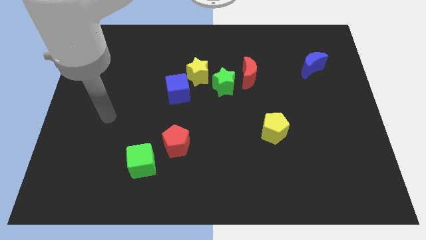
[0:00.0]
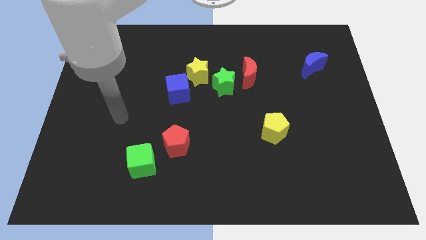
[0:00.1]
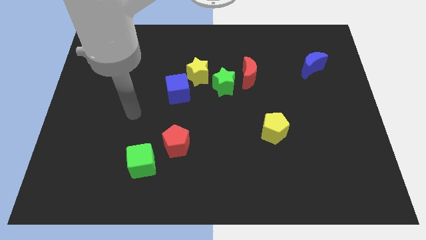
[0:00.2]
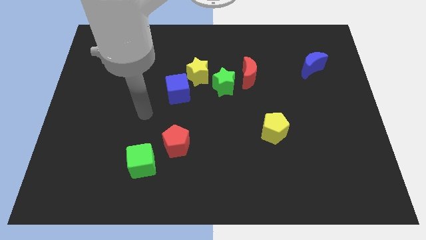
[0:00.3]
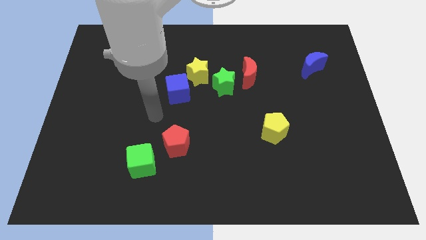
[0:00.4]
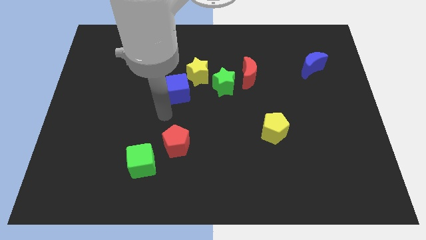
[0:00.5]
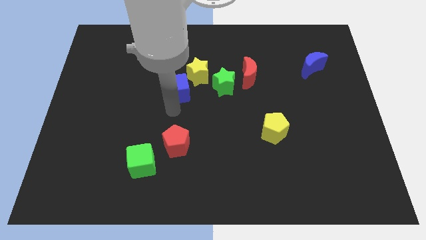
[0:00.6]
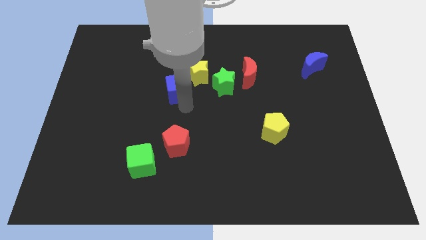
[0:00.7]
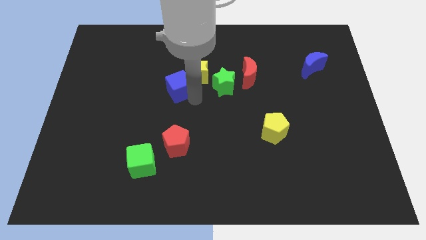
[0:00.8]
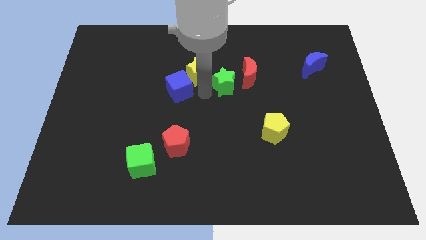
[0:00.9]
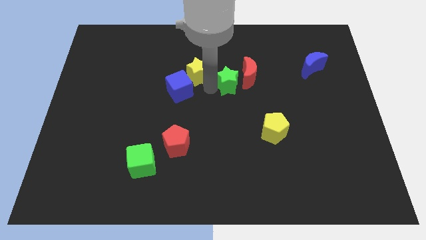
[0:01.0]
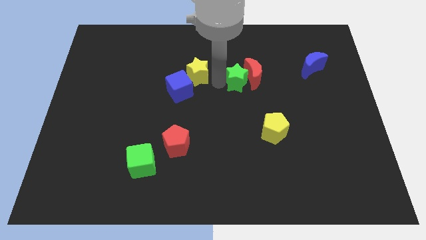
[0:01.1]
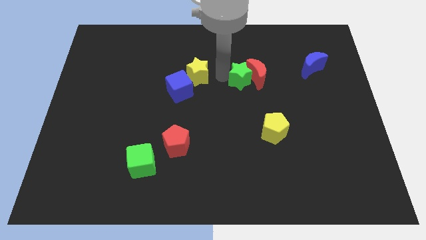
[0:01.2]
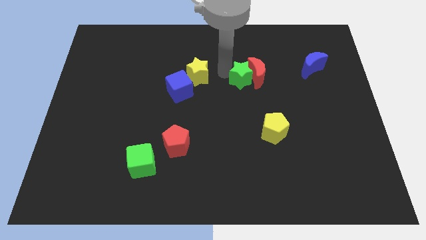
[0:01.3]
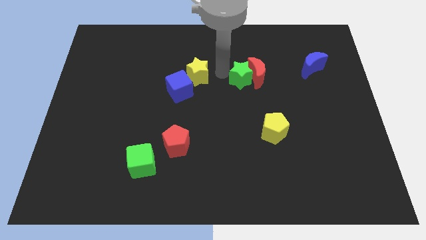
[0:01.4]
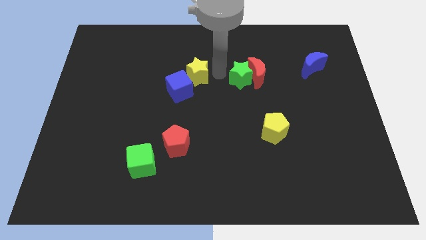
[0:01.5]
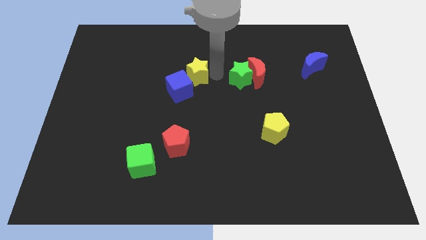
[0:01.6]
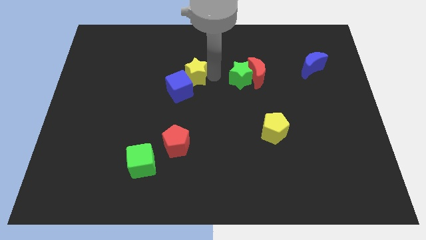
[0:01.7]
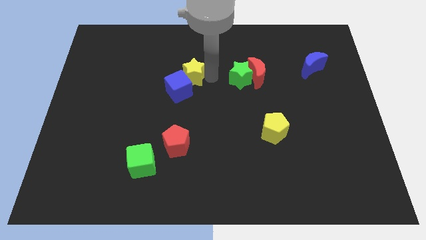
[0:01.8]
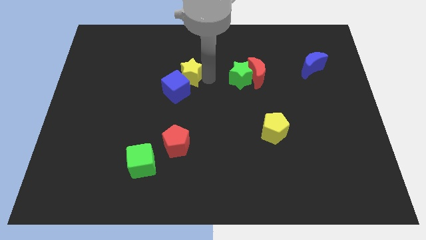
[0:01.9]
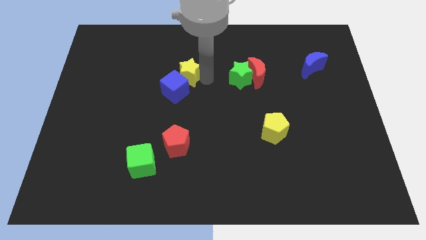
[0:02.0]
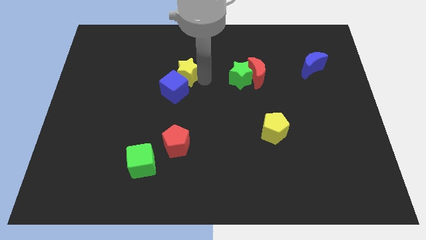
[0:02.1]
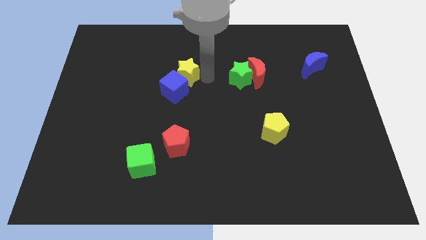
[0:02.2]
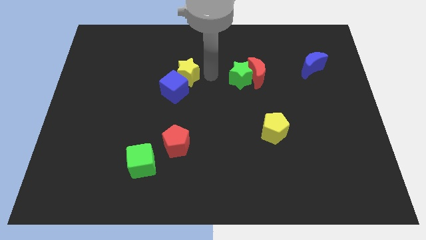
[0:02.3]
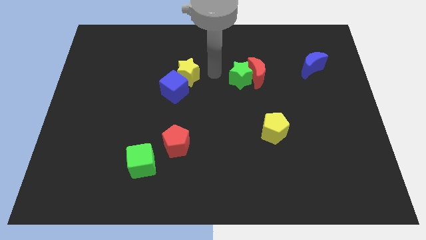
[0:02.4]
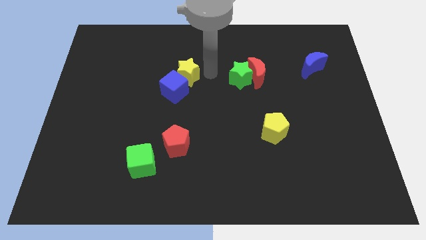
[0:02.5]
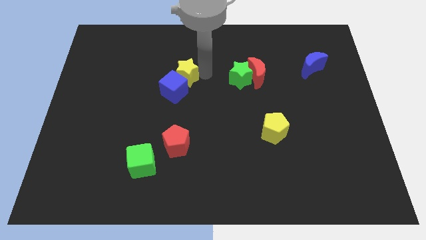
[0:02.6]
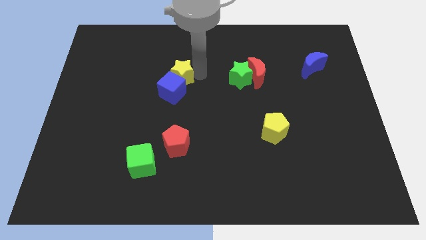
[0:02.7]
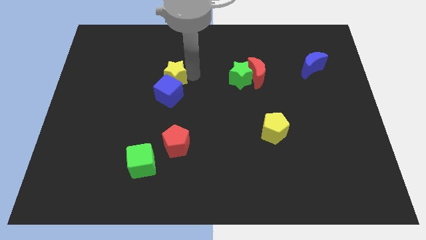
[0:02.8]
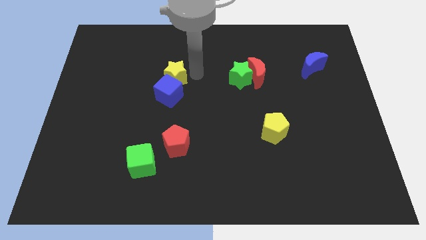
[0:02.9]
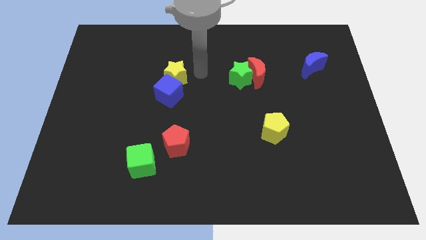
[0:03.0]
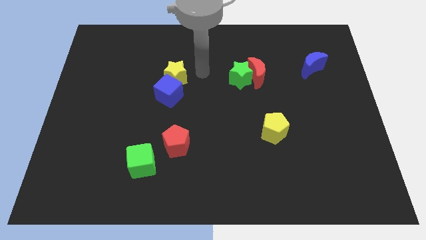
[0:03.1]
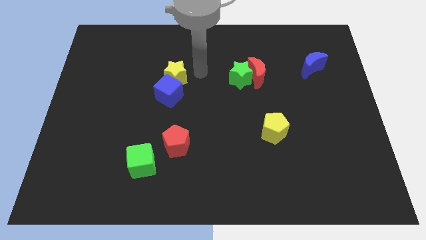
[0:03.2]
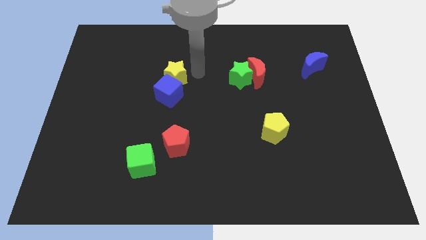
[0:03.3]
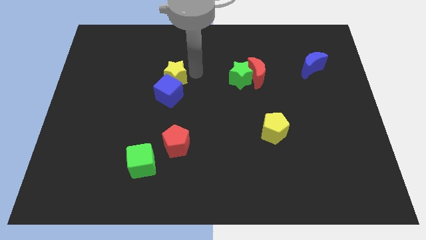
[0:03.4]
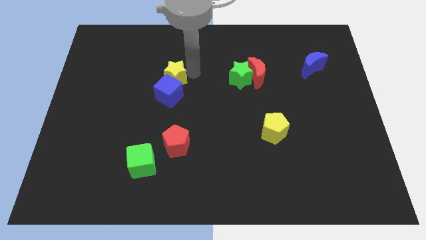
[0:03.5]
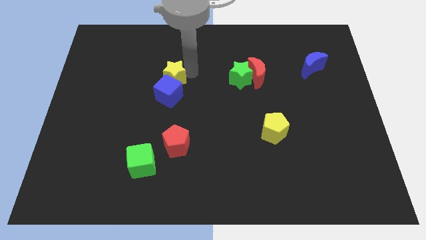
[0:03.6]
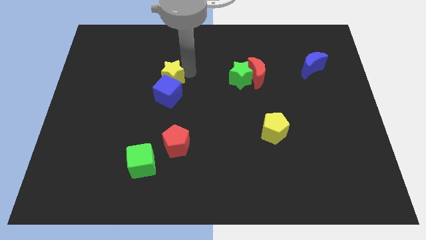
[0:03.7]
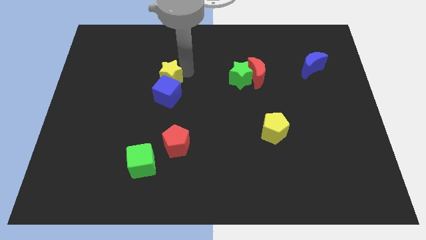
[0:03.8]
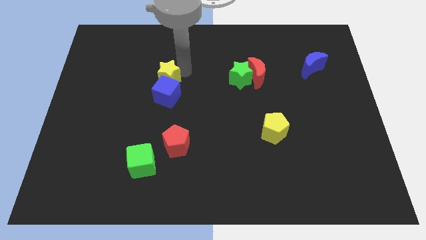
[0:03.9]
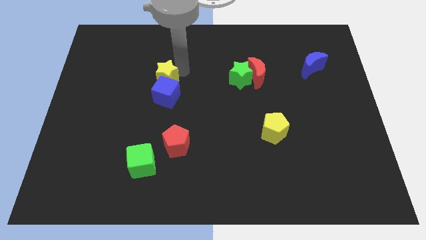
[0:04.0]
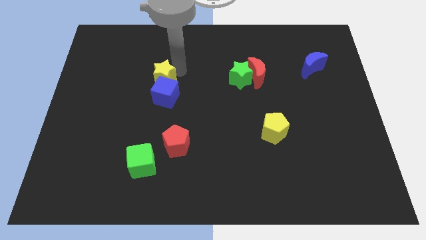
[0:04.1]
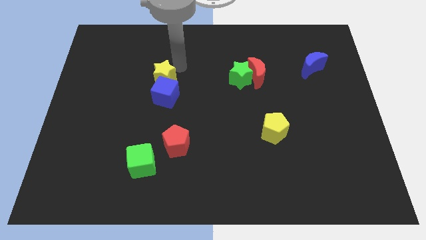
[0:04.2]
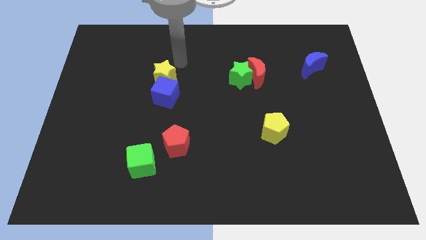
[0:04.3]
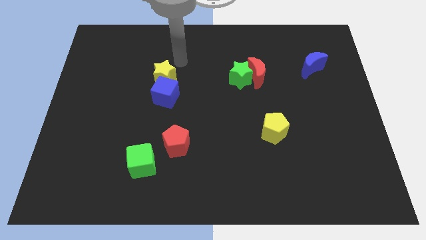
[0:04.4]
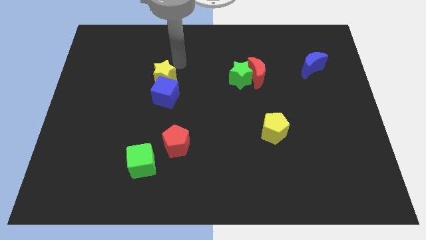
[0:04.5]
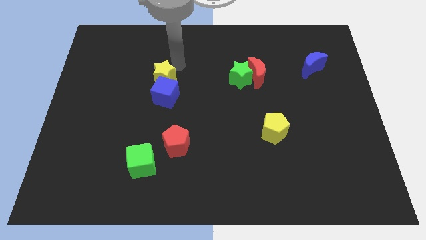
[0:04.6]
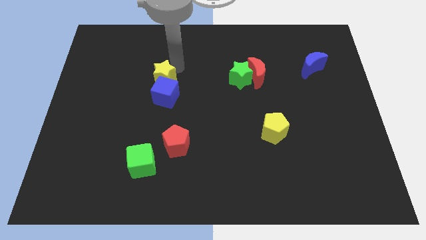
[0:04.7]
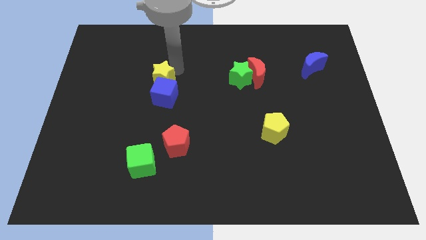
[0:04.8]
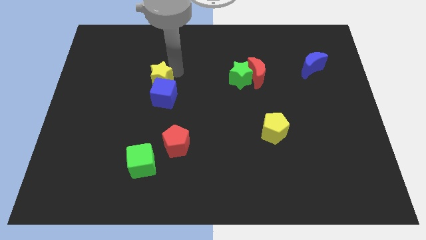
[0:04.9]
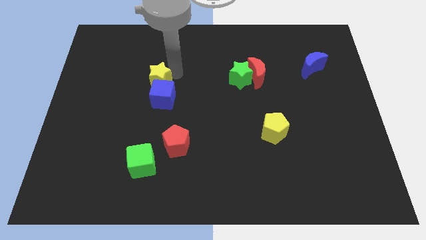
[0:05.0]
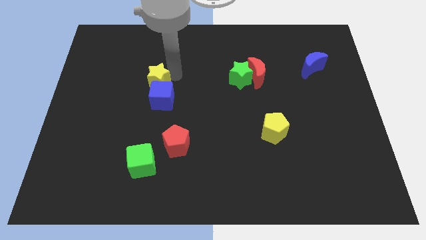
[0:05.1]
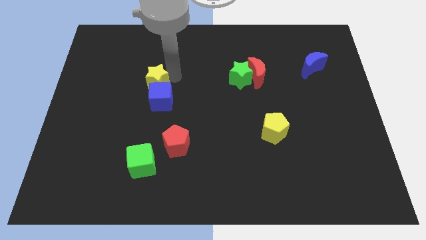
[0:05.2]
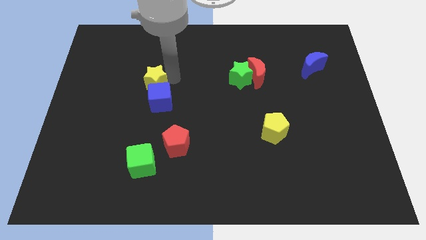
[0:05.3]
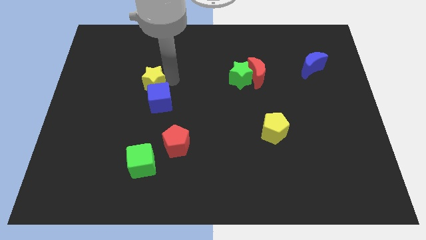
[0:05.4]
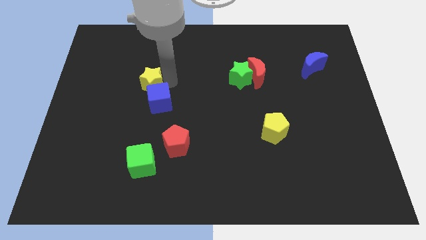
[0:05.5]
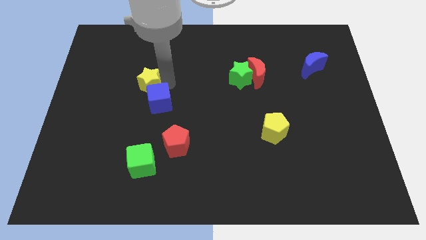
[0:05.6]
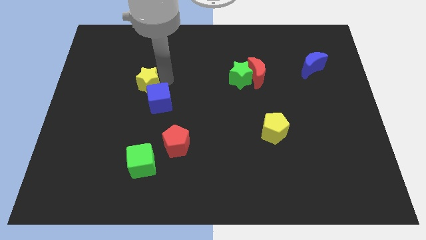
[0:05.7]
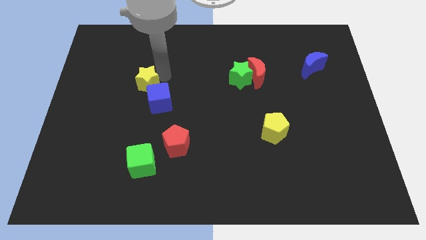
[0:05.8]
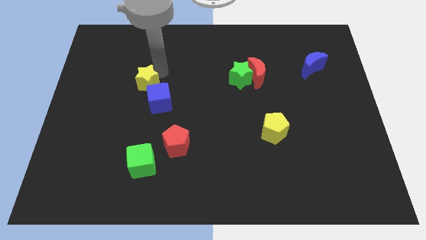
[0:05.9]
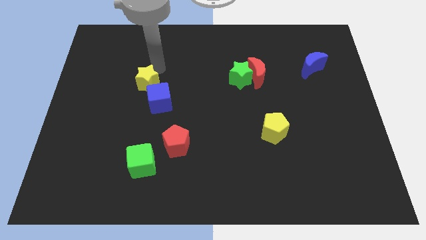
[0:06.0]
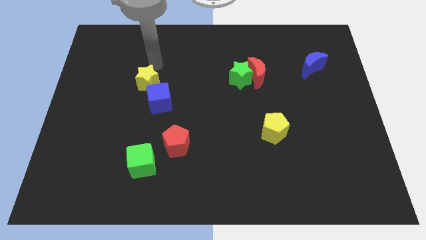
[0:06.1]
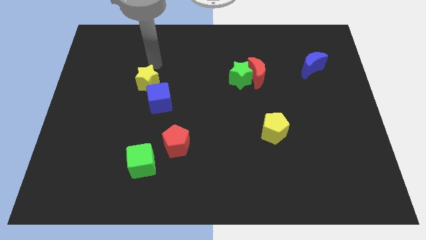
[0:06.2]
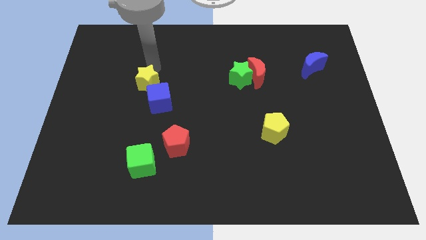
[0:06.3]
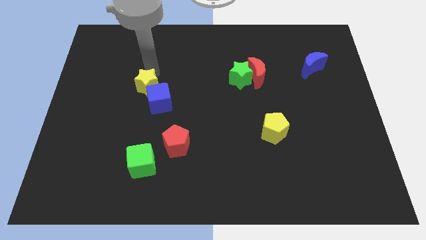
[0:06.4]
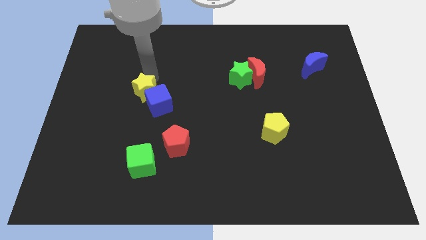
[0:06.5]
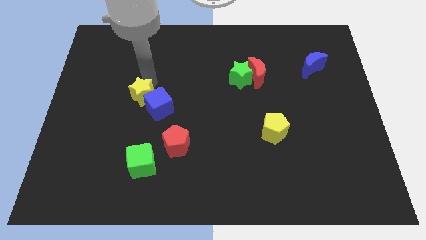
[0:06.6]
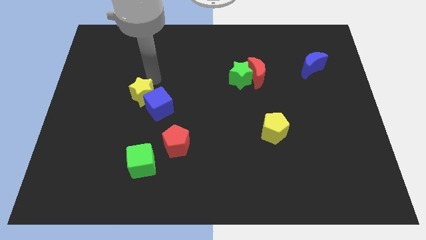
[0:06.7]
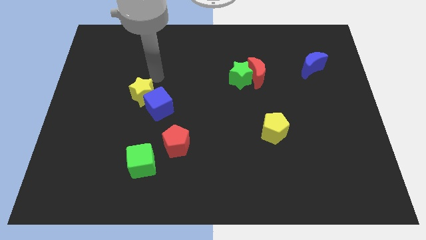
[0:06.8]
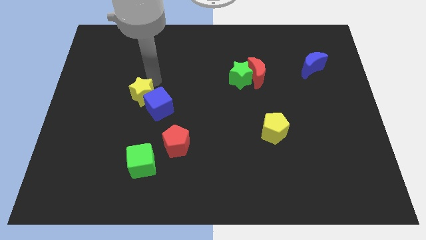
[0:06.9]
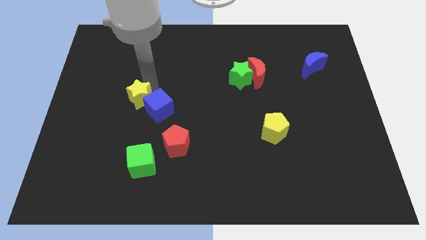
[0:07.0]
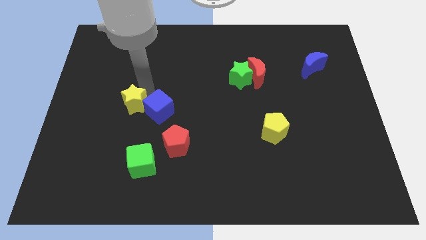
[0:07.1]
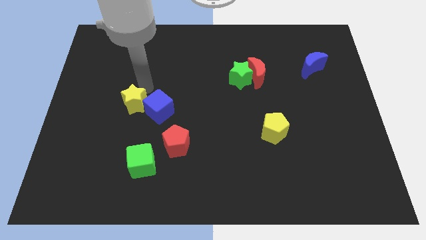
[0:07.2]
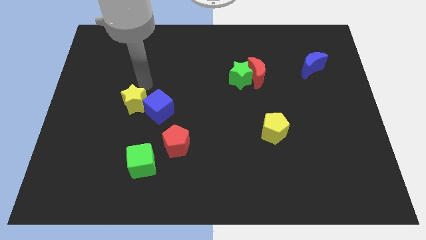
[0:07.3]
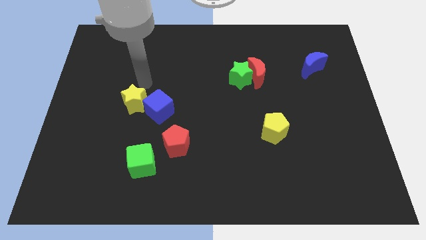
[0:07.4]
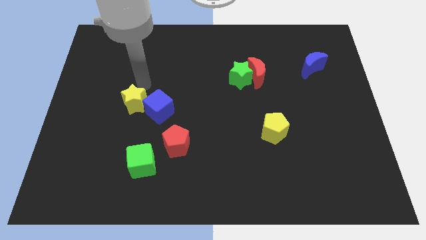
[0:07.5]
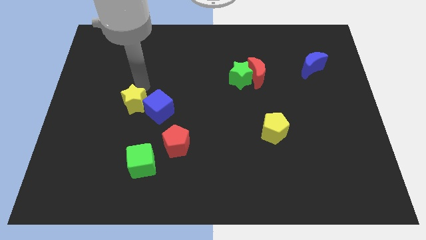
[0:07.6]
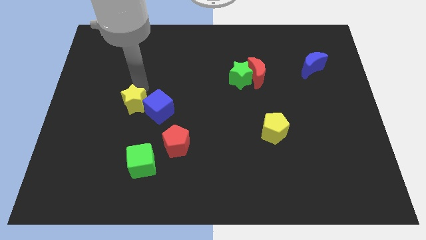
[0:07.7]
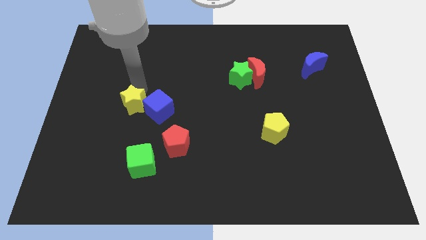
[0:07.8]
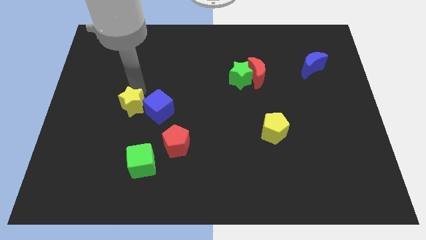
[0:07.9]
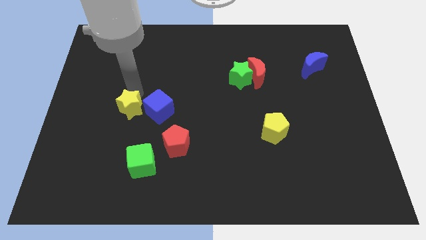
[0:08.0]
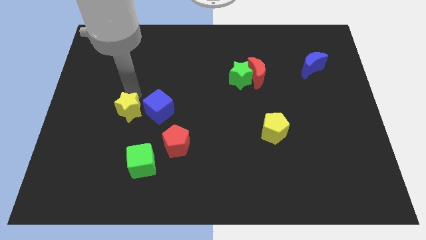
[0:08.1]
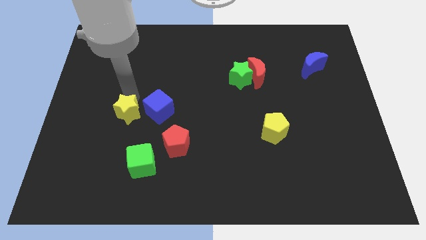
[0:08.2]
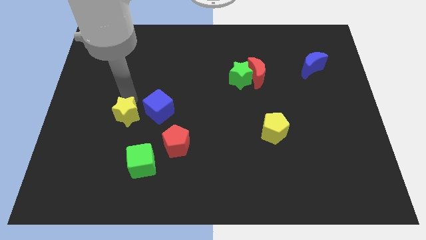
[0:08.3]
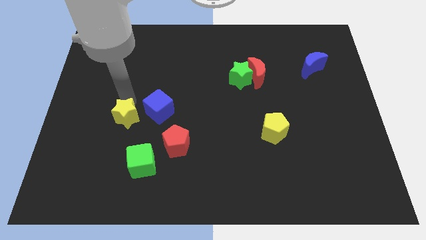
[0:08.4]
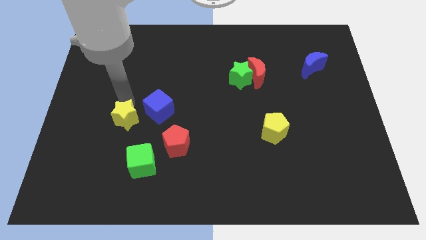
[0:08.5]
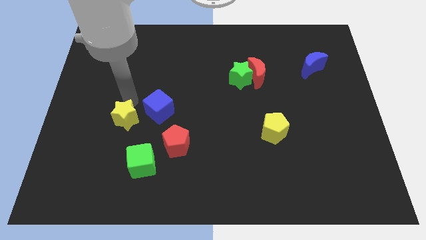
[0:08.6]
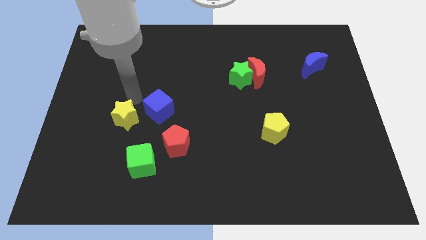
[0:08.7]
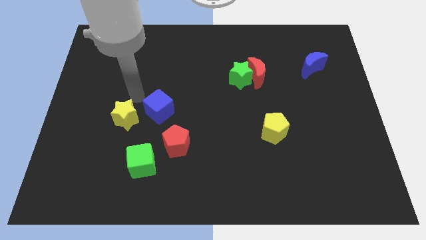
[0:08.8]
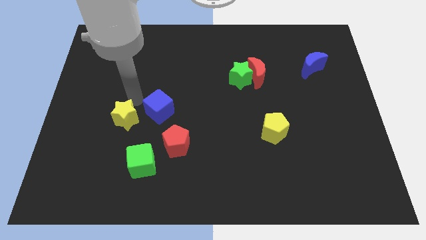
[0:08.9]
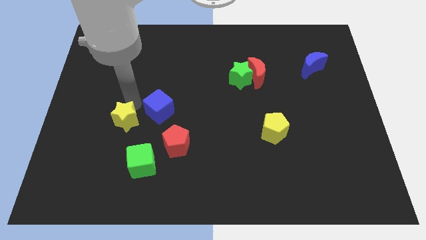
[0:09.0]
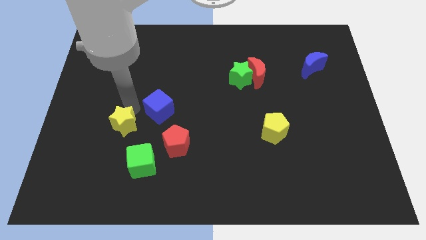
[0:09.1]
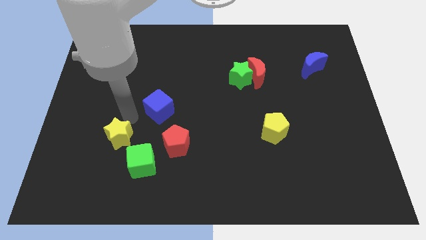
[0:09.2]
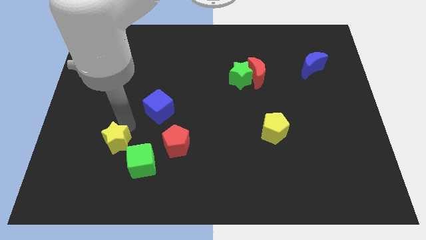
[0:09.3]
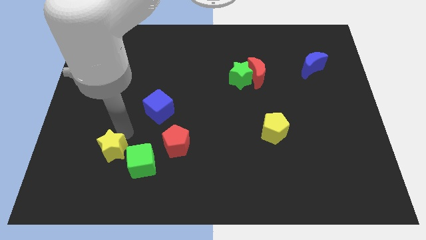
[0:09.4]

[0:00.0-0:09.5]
move the yellow star left of the green cube
